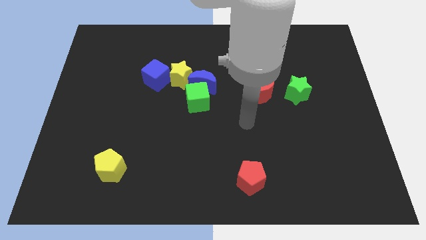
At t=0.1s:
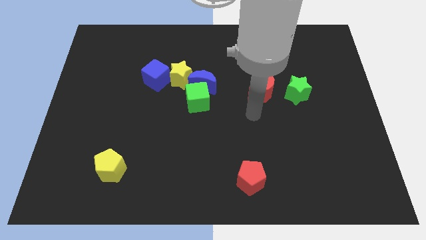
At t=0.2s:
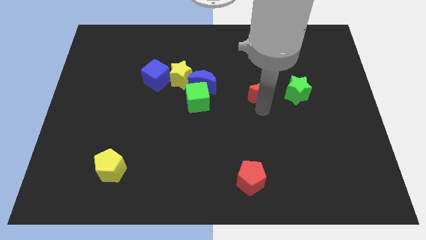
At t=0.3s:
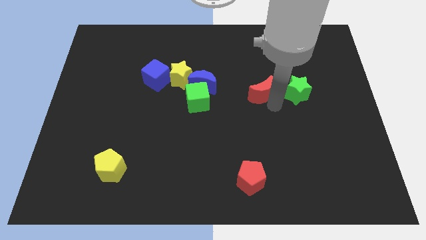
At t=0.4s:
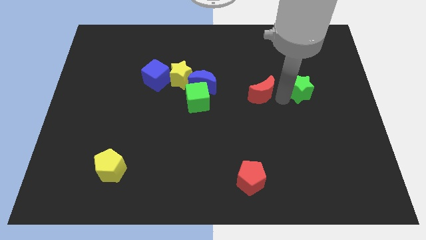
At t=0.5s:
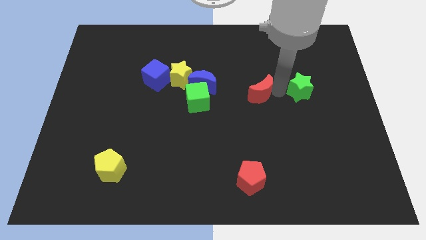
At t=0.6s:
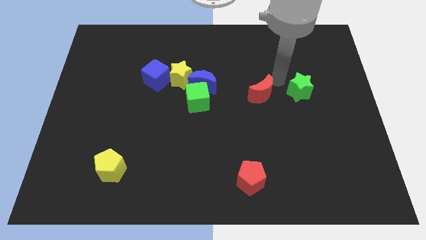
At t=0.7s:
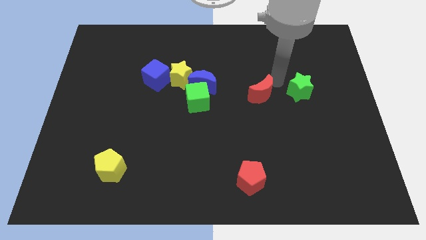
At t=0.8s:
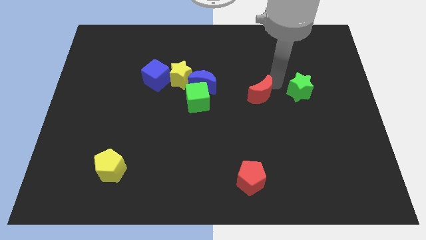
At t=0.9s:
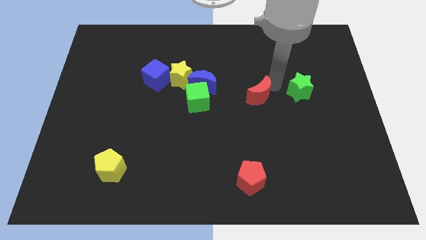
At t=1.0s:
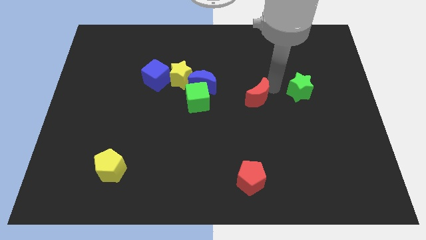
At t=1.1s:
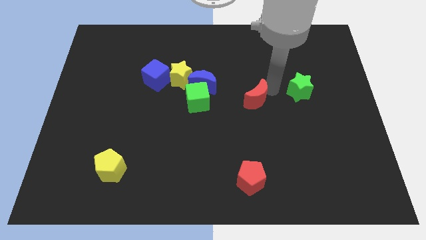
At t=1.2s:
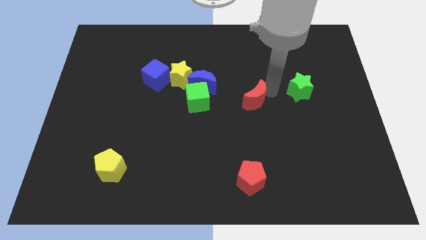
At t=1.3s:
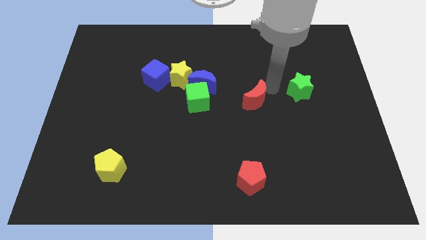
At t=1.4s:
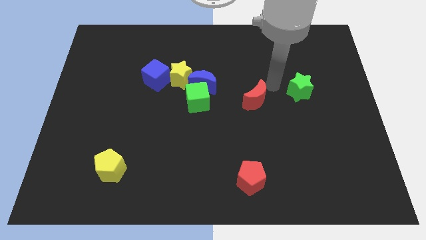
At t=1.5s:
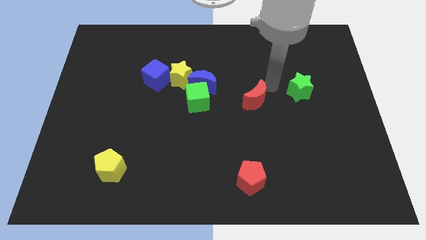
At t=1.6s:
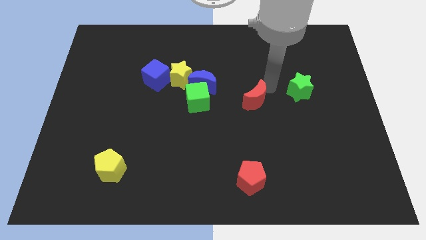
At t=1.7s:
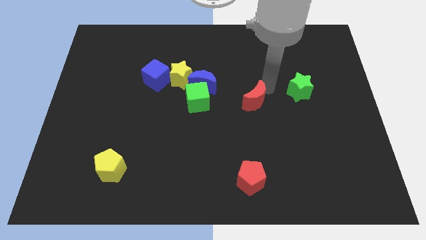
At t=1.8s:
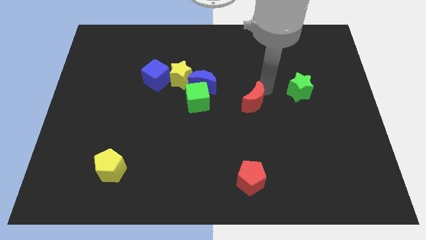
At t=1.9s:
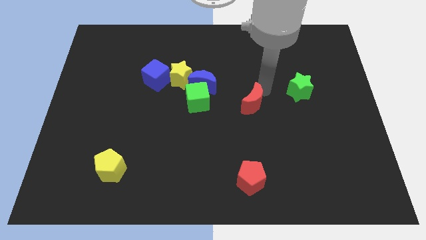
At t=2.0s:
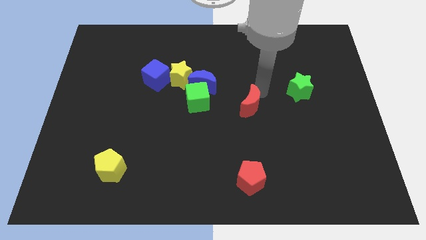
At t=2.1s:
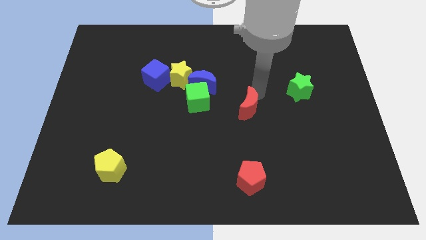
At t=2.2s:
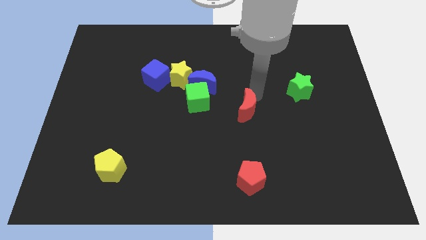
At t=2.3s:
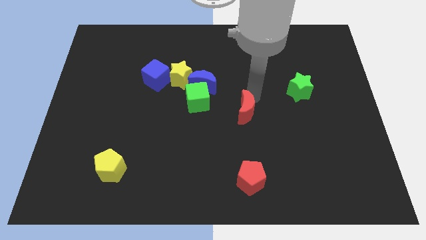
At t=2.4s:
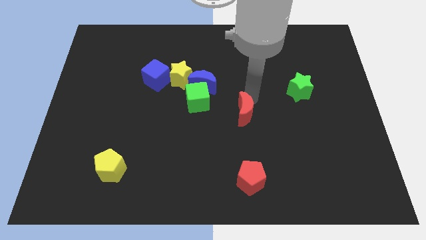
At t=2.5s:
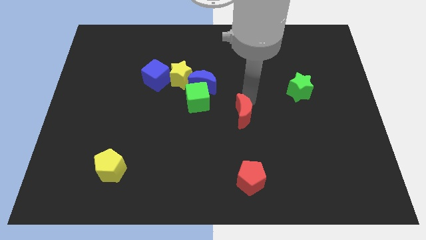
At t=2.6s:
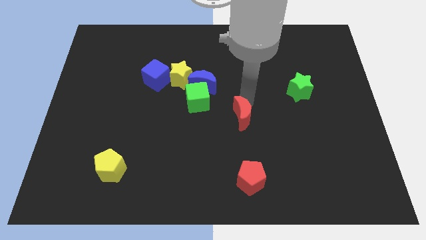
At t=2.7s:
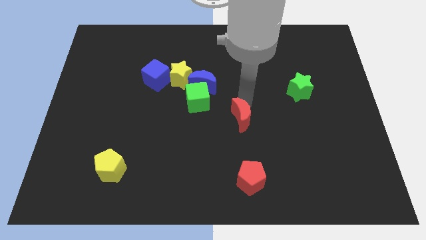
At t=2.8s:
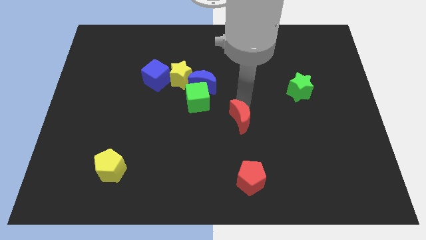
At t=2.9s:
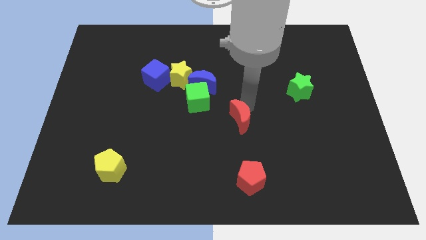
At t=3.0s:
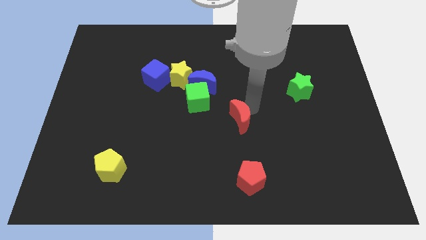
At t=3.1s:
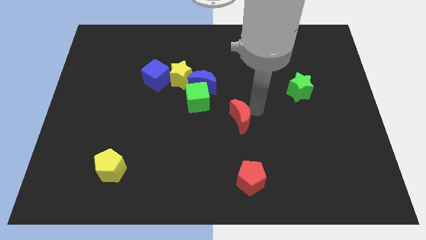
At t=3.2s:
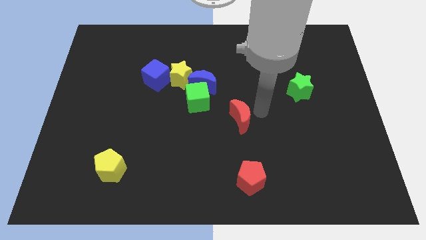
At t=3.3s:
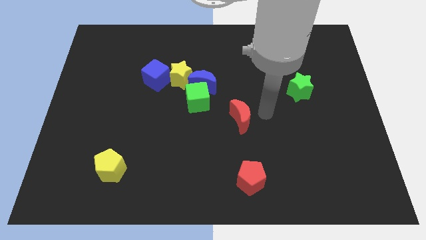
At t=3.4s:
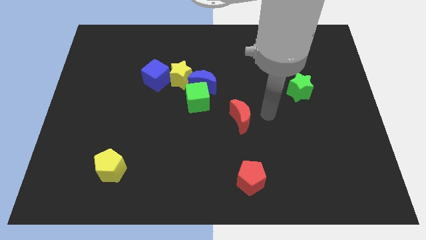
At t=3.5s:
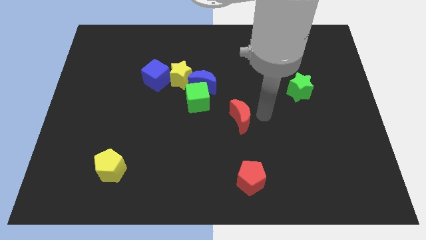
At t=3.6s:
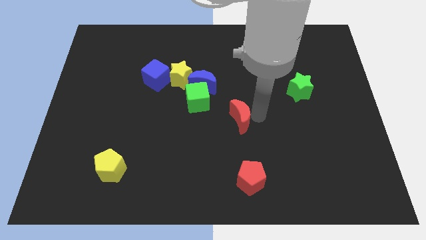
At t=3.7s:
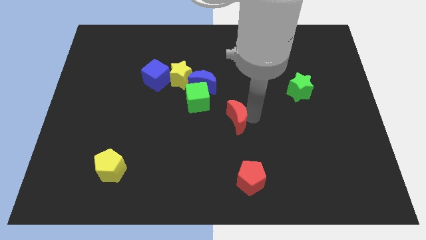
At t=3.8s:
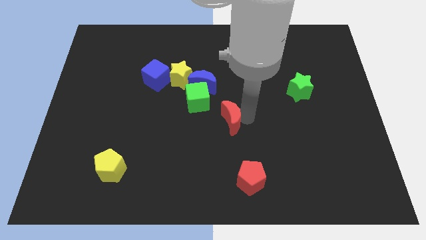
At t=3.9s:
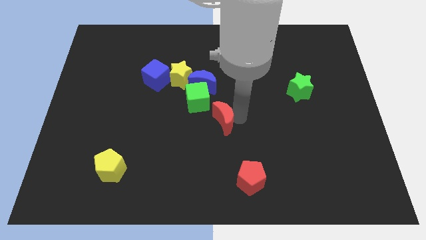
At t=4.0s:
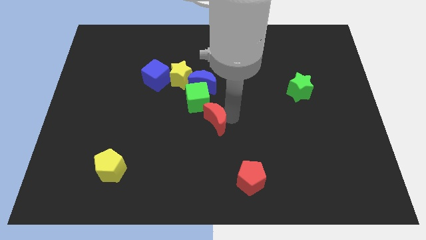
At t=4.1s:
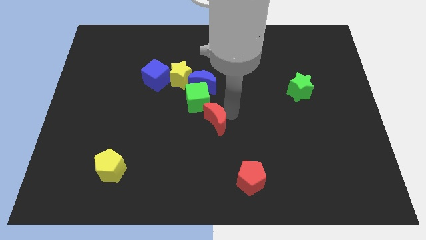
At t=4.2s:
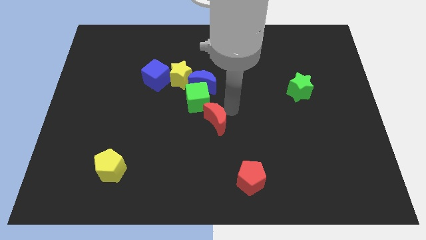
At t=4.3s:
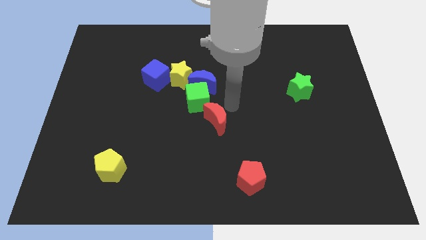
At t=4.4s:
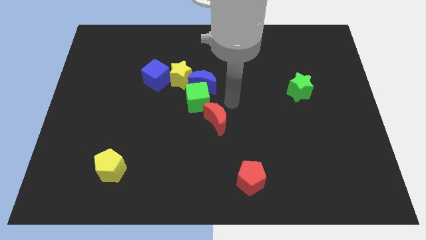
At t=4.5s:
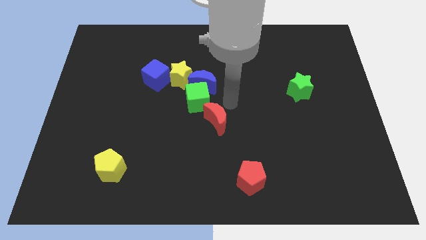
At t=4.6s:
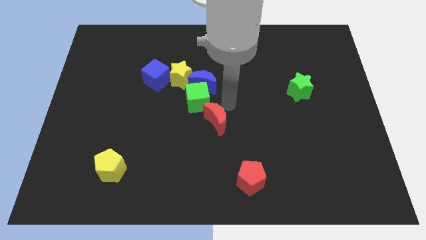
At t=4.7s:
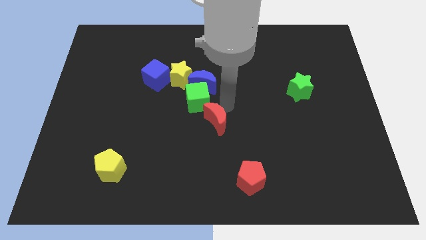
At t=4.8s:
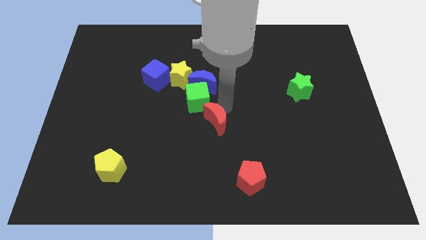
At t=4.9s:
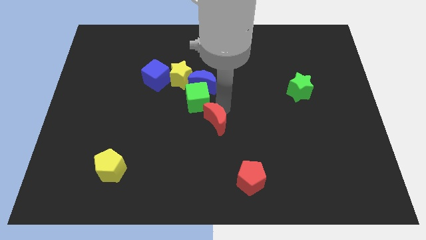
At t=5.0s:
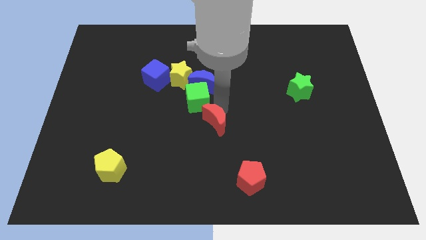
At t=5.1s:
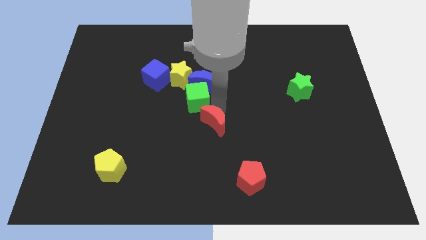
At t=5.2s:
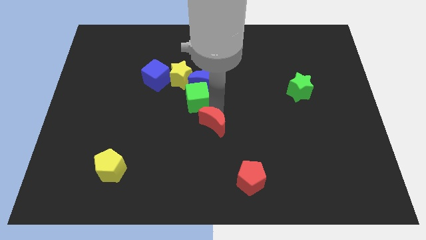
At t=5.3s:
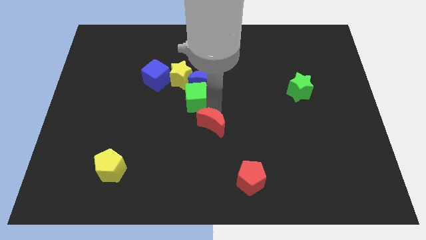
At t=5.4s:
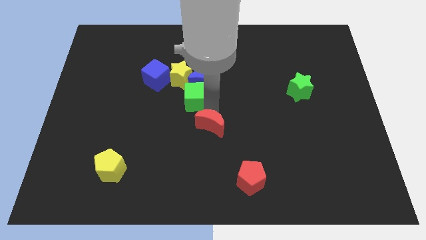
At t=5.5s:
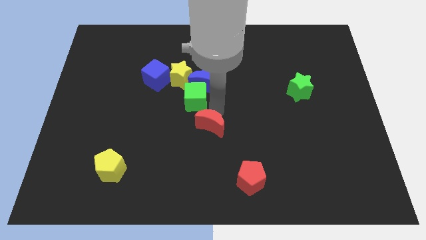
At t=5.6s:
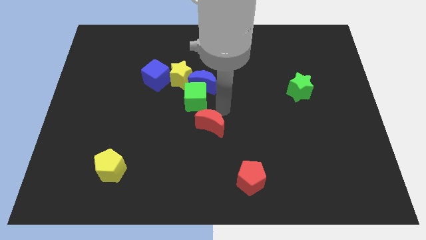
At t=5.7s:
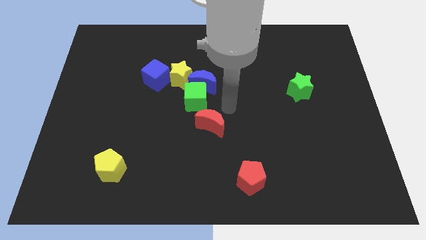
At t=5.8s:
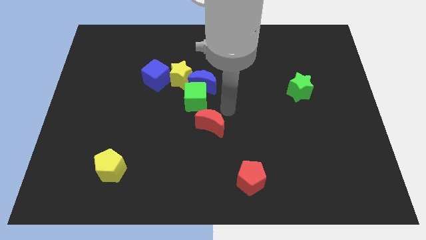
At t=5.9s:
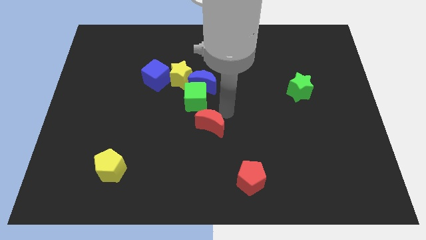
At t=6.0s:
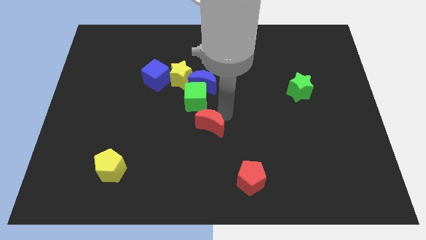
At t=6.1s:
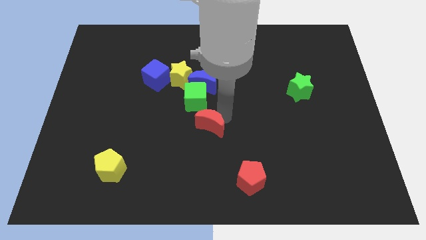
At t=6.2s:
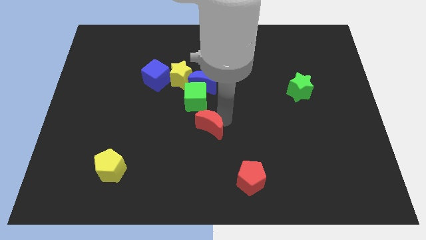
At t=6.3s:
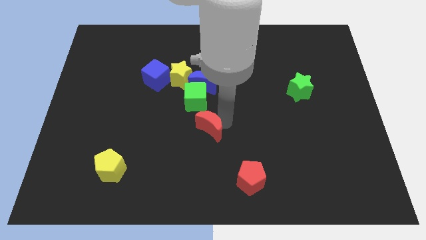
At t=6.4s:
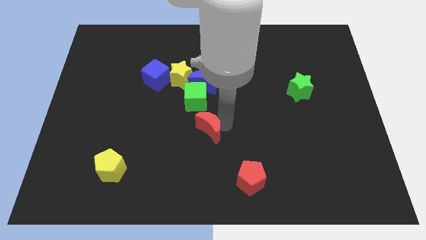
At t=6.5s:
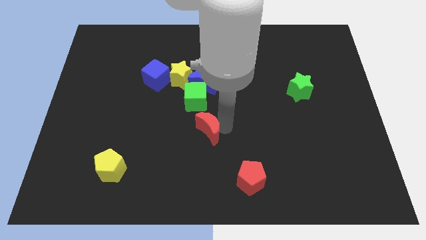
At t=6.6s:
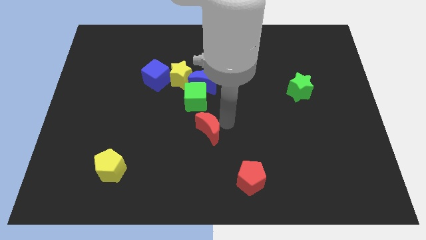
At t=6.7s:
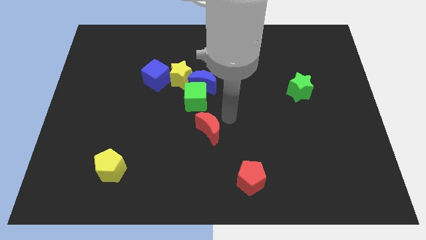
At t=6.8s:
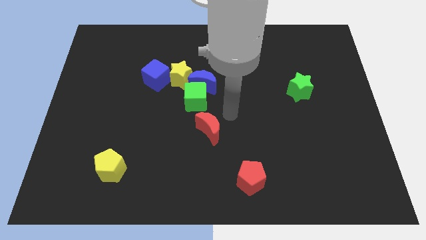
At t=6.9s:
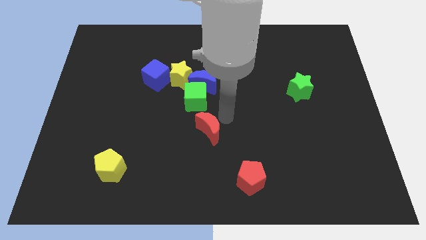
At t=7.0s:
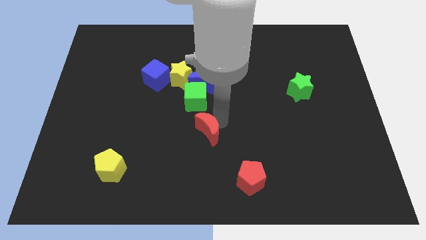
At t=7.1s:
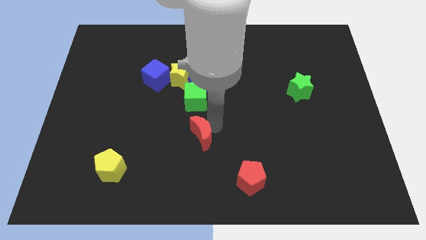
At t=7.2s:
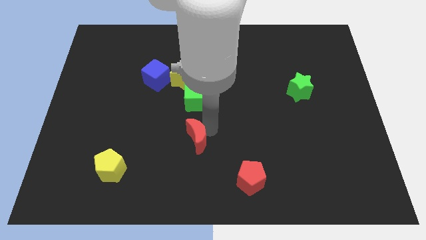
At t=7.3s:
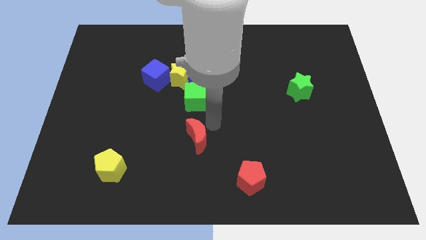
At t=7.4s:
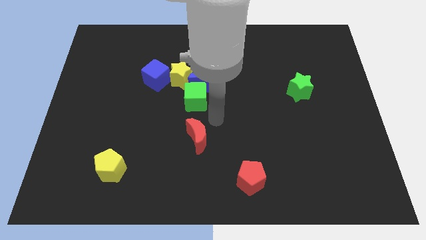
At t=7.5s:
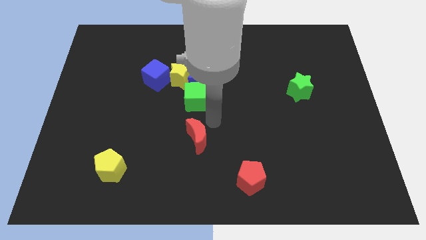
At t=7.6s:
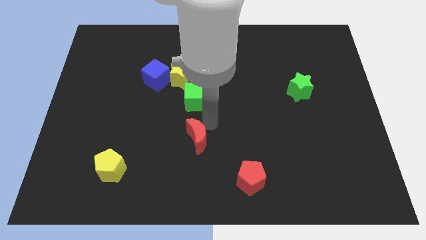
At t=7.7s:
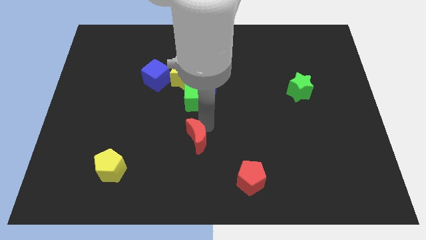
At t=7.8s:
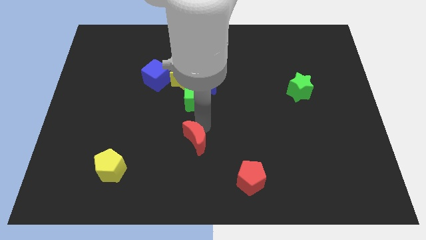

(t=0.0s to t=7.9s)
slide the red moon downwards and to the left

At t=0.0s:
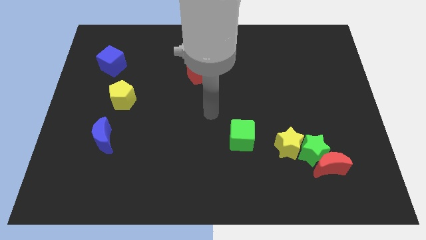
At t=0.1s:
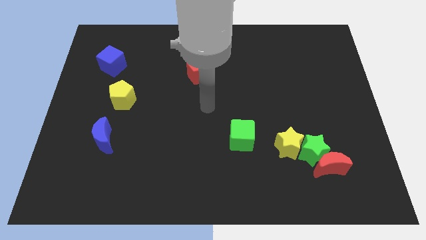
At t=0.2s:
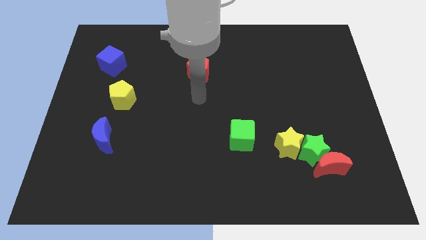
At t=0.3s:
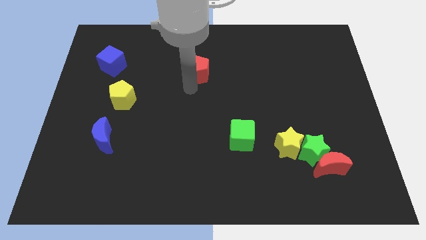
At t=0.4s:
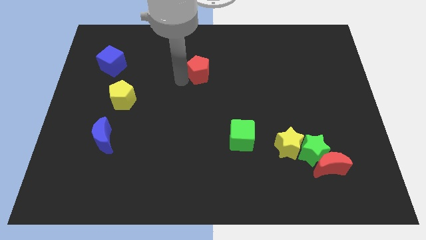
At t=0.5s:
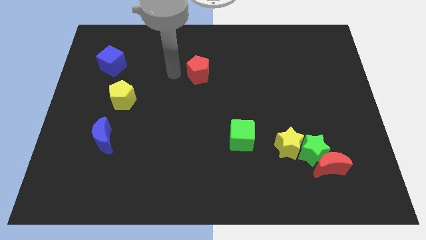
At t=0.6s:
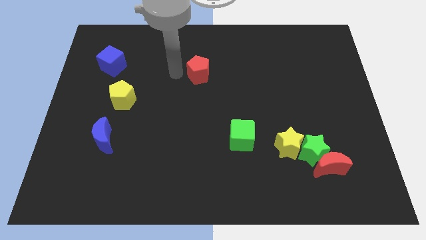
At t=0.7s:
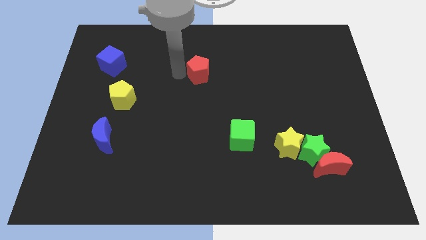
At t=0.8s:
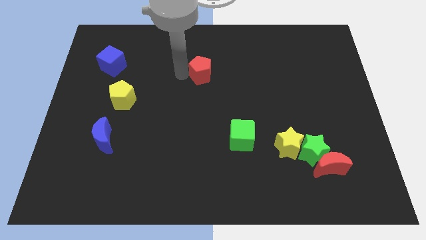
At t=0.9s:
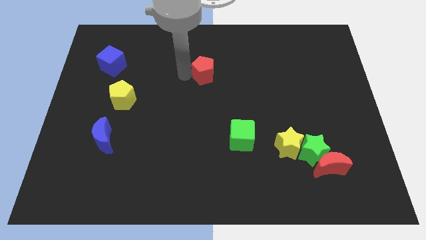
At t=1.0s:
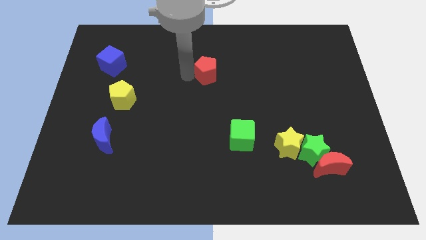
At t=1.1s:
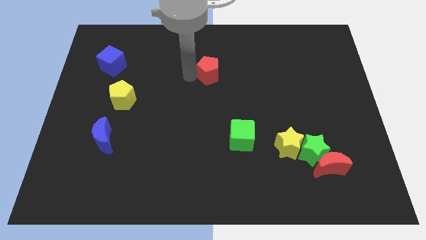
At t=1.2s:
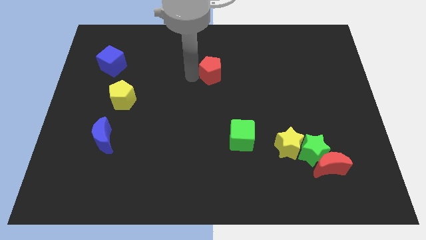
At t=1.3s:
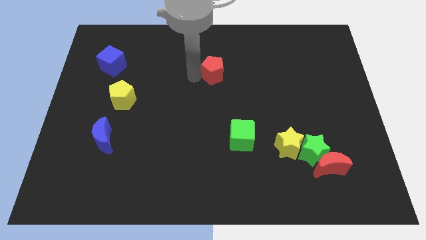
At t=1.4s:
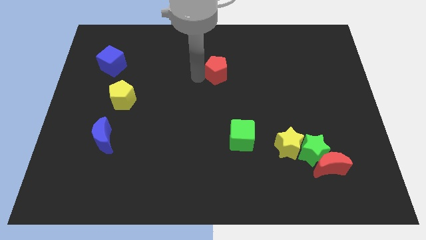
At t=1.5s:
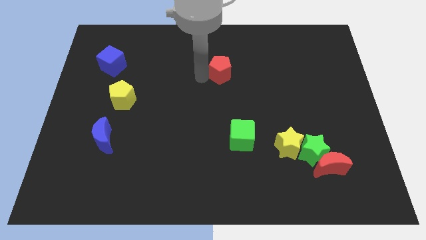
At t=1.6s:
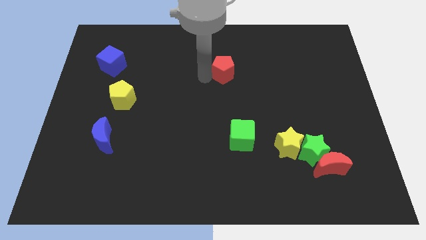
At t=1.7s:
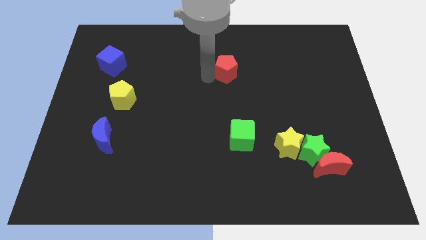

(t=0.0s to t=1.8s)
move the red pentagon a little bit right
